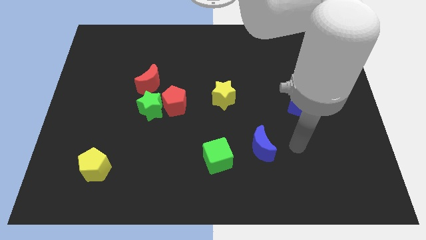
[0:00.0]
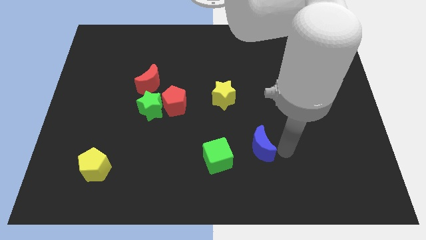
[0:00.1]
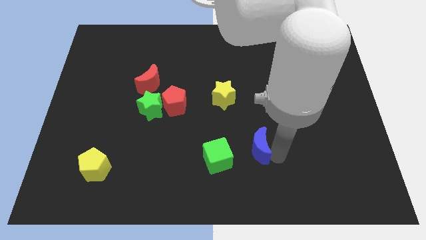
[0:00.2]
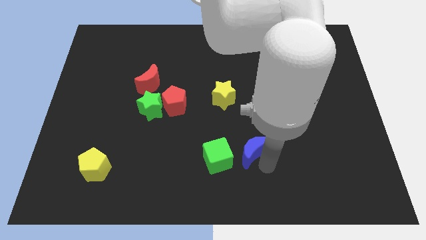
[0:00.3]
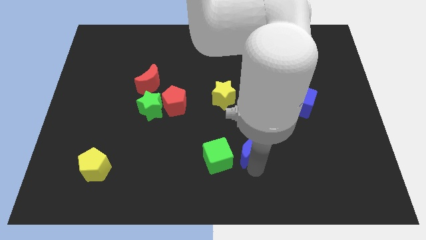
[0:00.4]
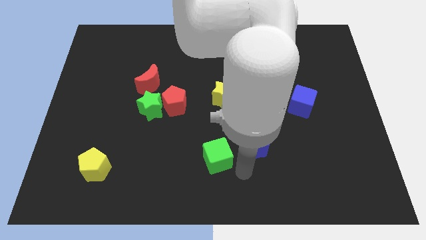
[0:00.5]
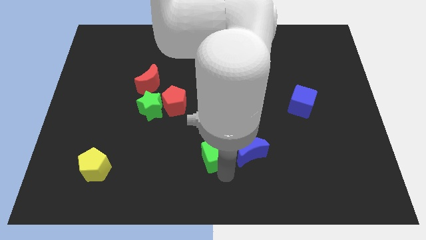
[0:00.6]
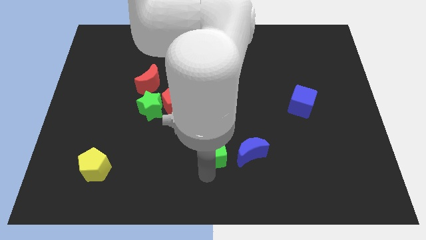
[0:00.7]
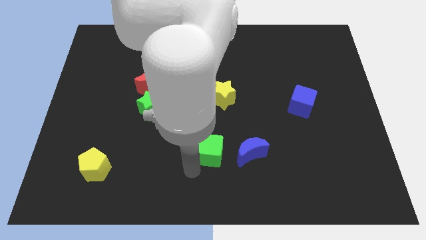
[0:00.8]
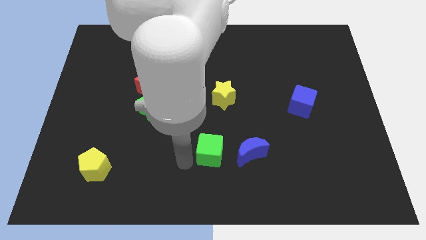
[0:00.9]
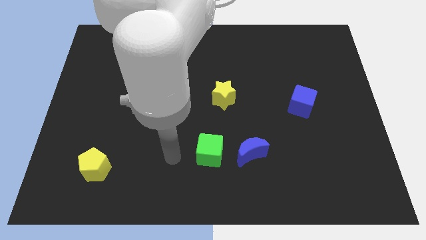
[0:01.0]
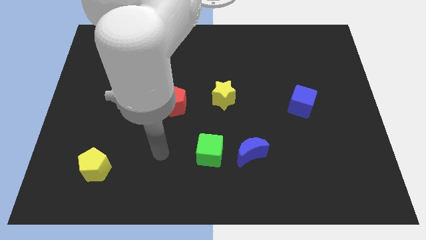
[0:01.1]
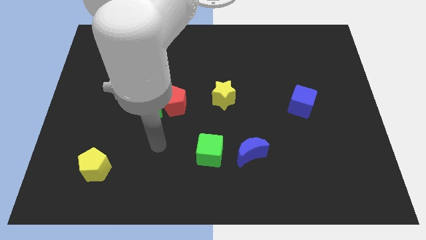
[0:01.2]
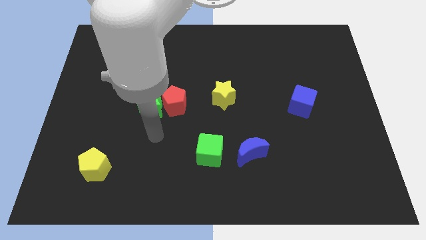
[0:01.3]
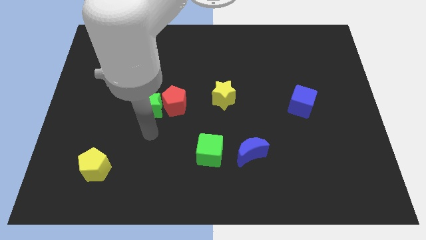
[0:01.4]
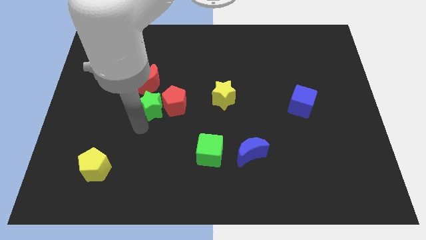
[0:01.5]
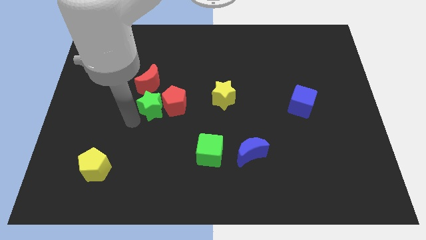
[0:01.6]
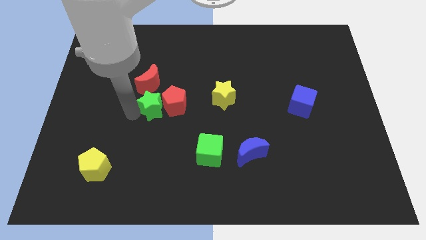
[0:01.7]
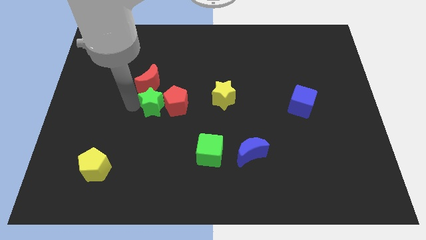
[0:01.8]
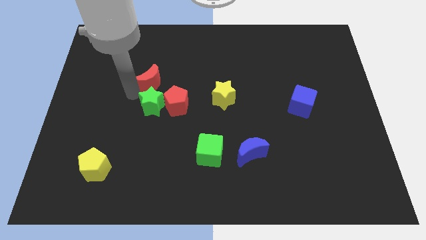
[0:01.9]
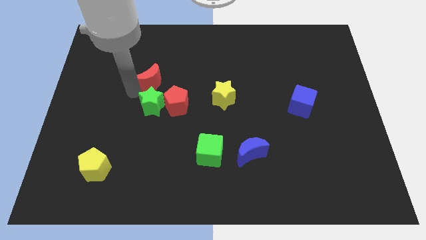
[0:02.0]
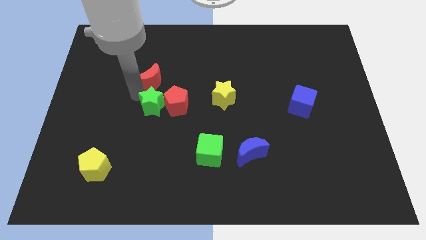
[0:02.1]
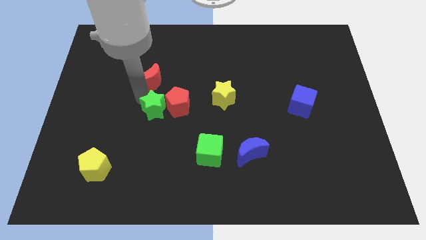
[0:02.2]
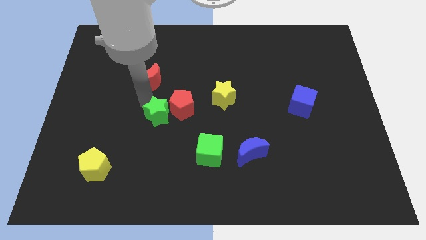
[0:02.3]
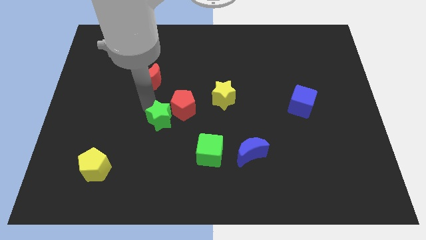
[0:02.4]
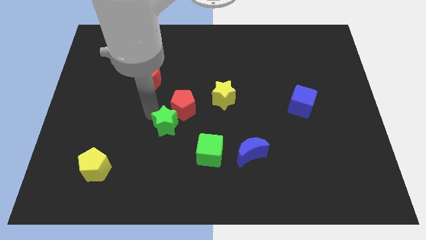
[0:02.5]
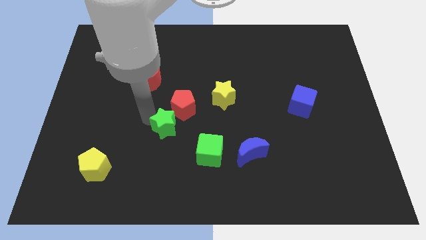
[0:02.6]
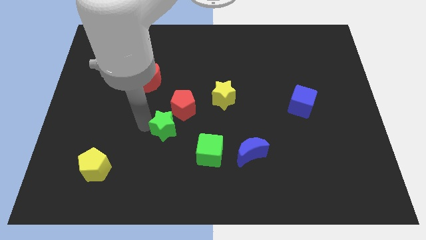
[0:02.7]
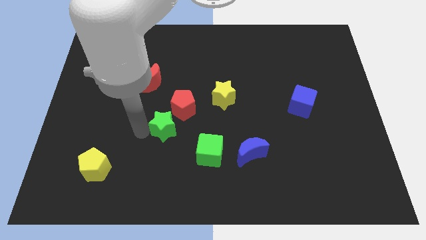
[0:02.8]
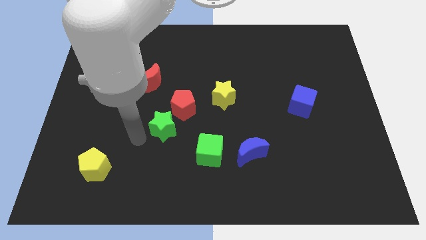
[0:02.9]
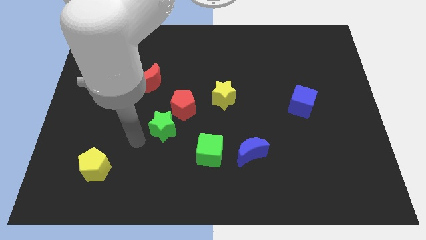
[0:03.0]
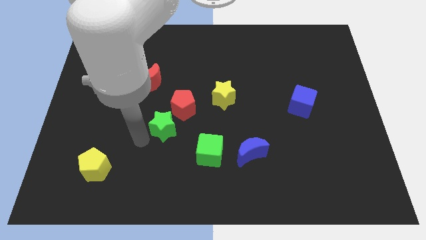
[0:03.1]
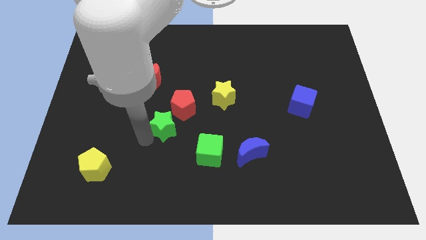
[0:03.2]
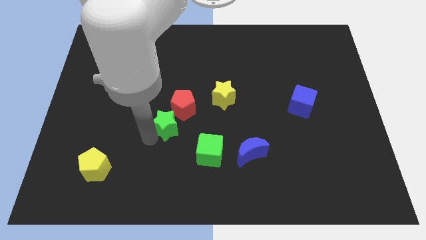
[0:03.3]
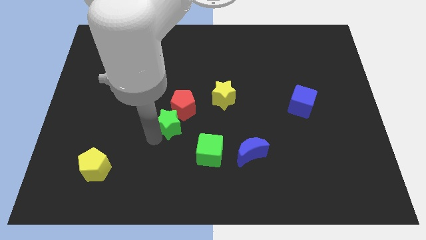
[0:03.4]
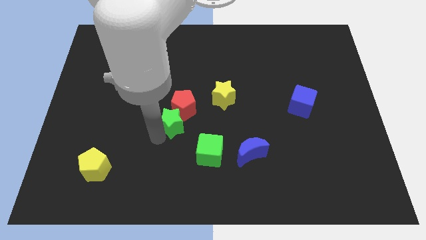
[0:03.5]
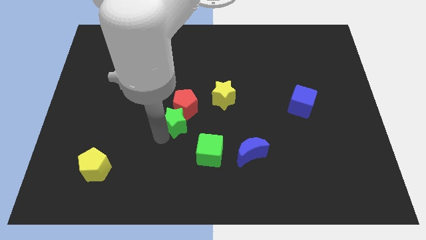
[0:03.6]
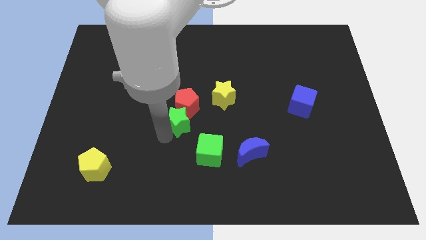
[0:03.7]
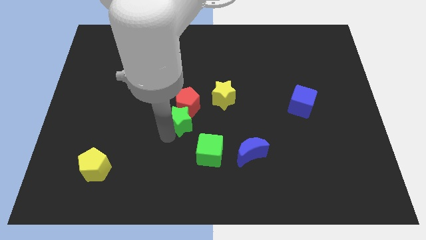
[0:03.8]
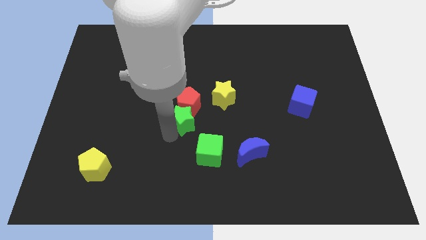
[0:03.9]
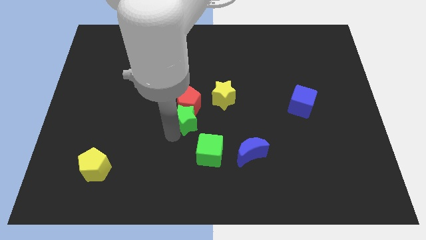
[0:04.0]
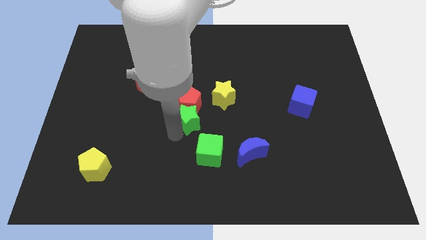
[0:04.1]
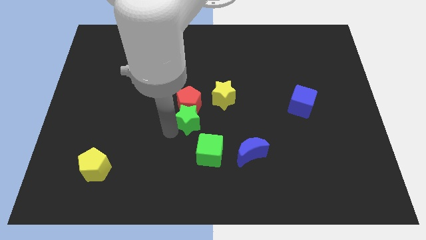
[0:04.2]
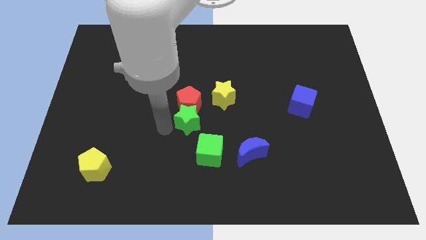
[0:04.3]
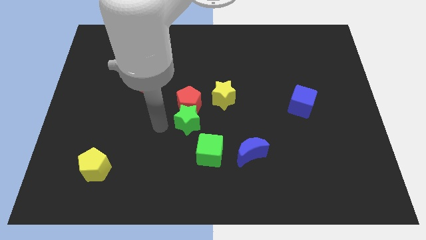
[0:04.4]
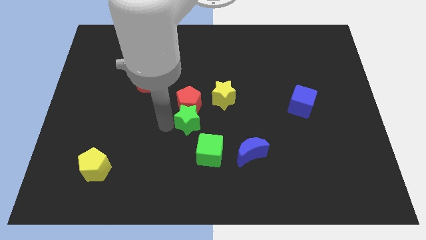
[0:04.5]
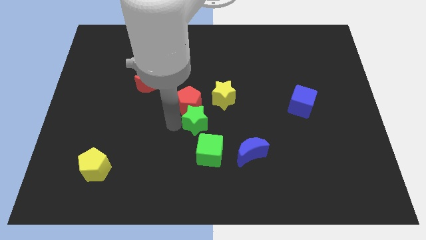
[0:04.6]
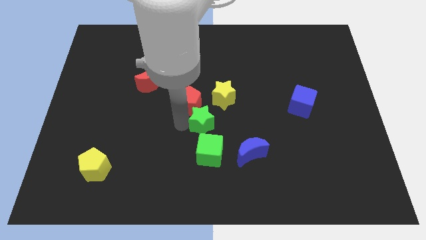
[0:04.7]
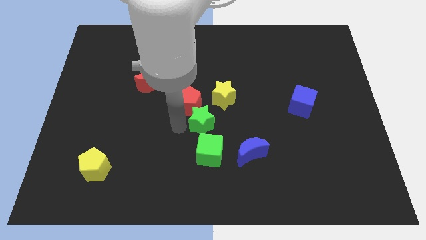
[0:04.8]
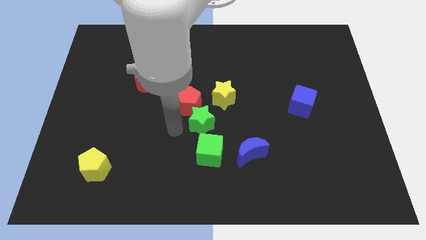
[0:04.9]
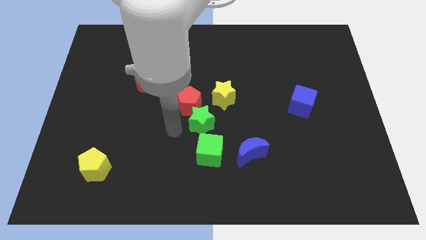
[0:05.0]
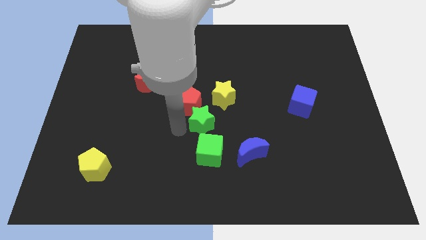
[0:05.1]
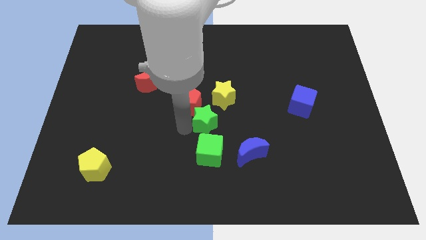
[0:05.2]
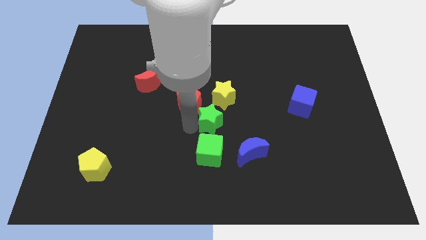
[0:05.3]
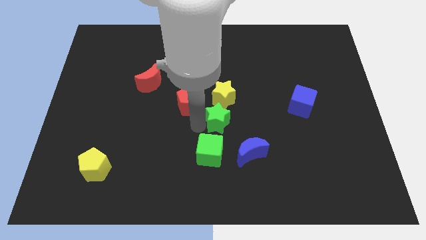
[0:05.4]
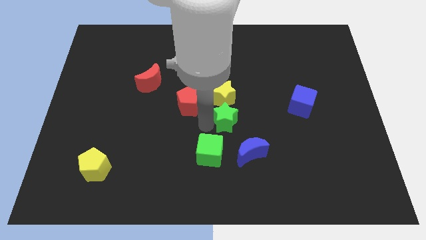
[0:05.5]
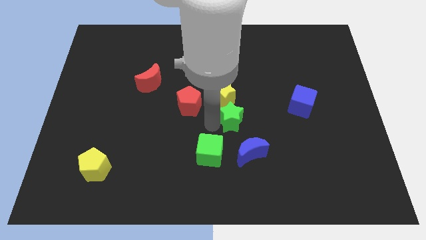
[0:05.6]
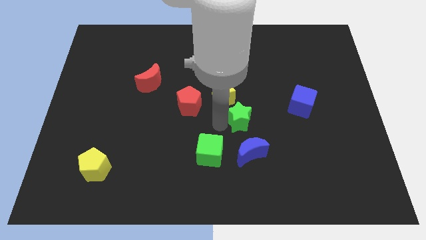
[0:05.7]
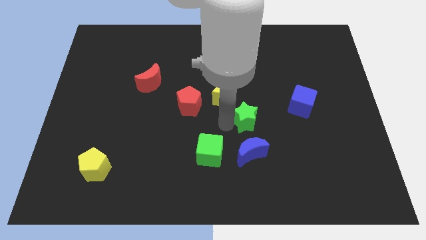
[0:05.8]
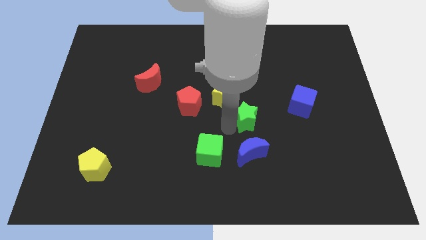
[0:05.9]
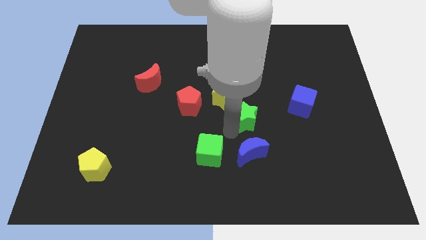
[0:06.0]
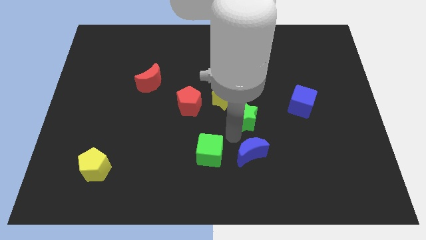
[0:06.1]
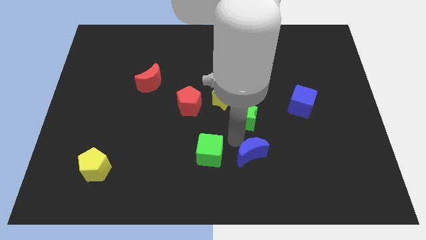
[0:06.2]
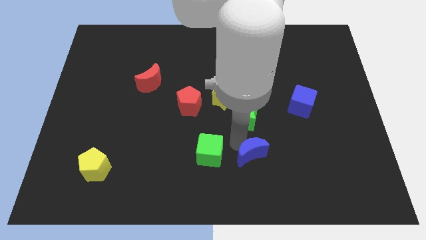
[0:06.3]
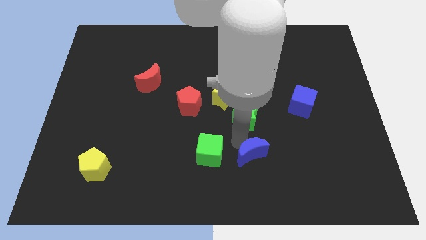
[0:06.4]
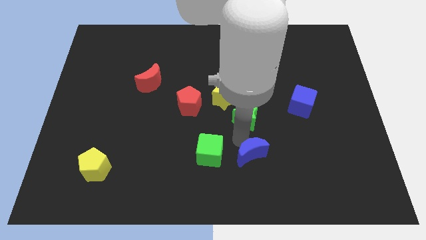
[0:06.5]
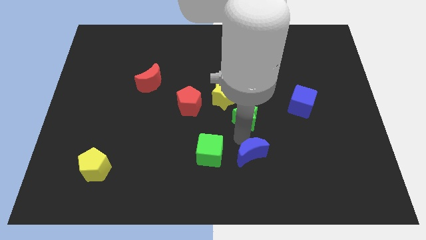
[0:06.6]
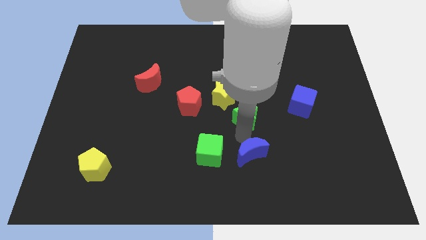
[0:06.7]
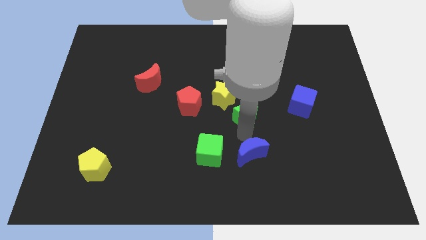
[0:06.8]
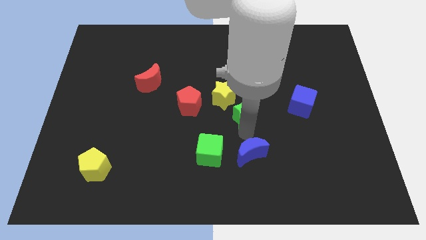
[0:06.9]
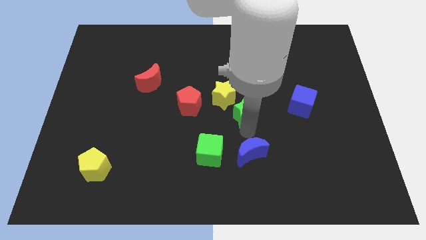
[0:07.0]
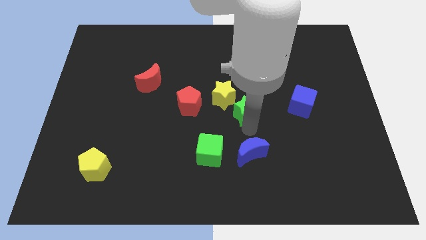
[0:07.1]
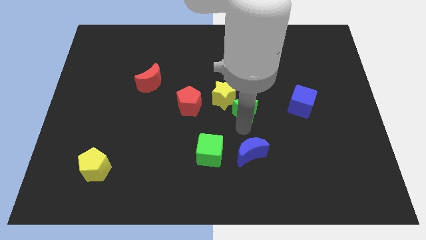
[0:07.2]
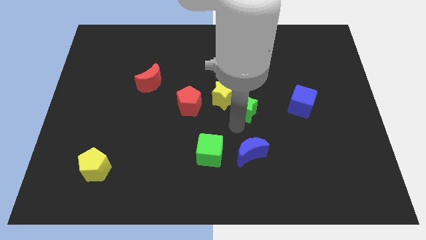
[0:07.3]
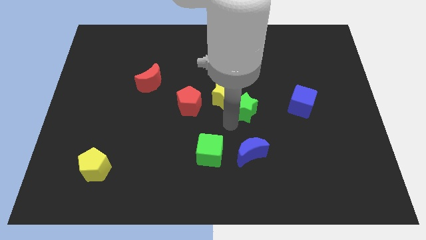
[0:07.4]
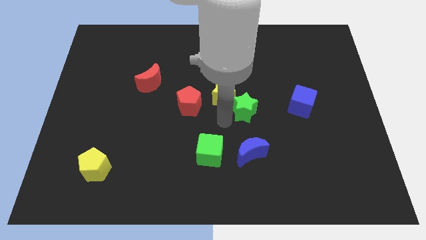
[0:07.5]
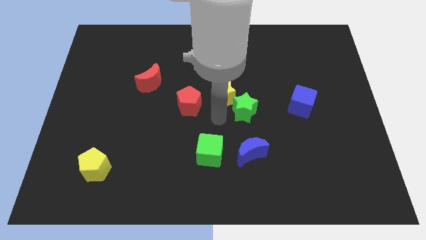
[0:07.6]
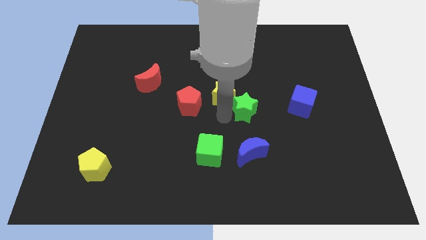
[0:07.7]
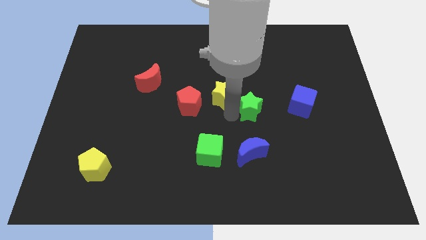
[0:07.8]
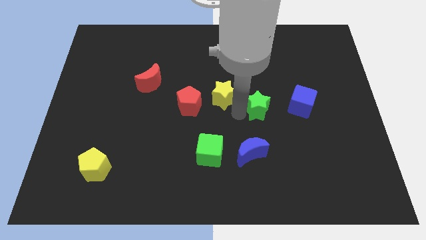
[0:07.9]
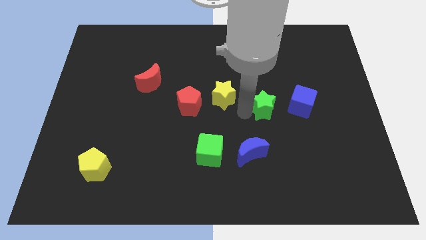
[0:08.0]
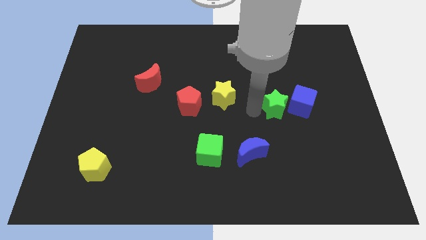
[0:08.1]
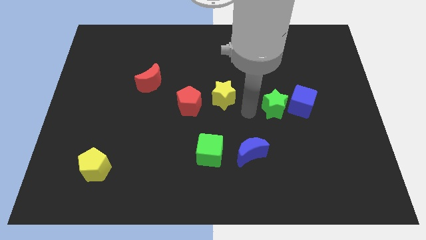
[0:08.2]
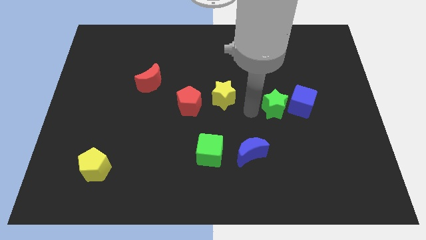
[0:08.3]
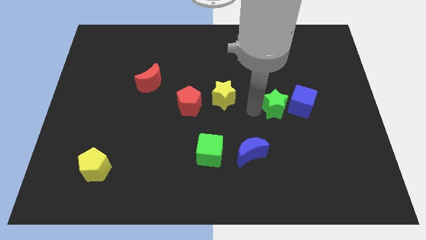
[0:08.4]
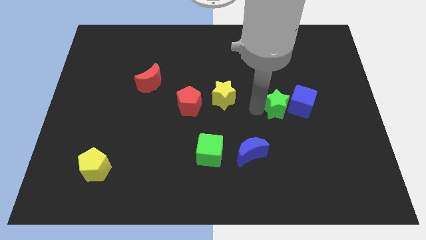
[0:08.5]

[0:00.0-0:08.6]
move the green star next to the blue cube
